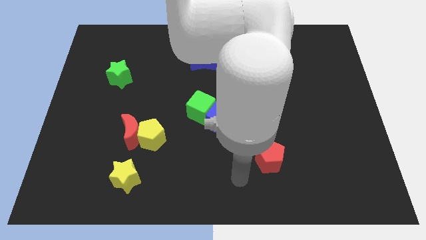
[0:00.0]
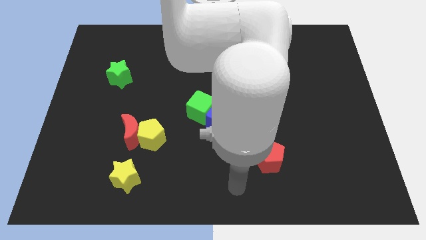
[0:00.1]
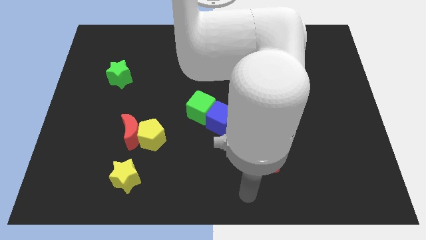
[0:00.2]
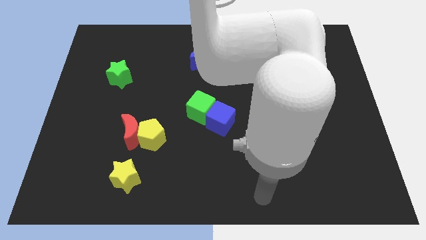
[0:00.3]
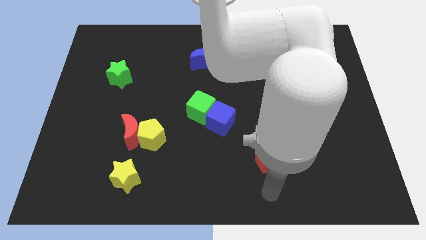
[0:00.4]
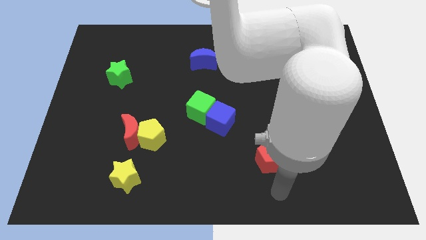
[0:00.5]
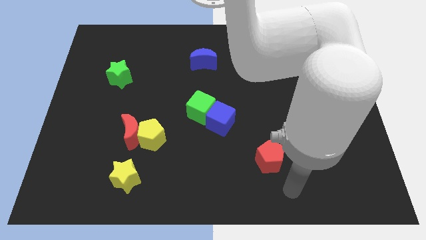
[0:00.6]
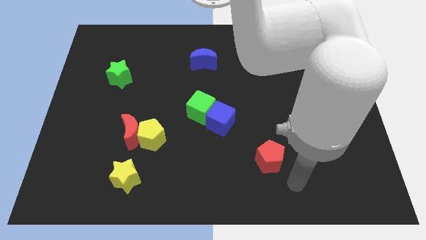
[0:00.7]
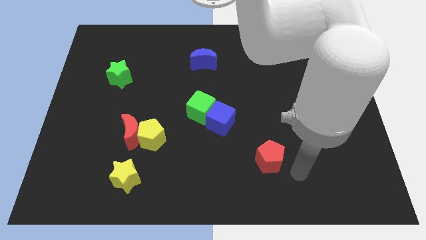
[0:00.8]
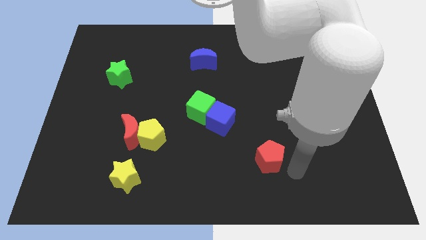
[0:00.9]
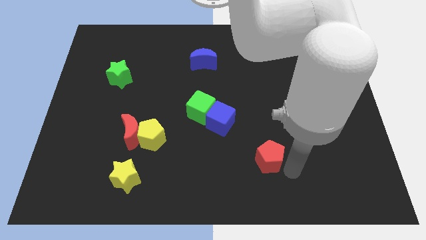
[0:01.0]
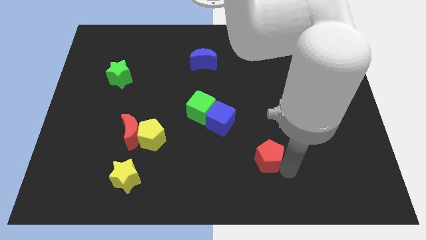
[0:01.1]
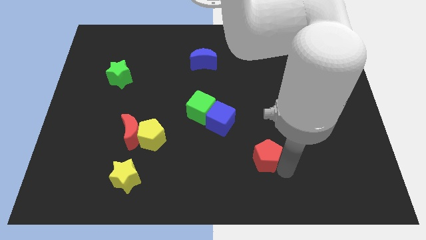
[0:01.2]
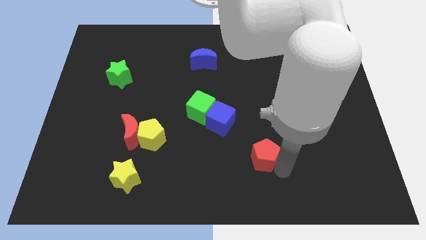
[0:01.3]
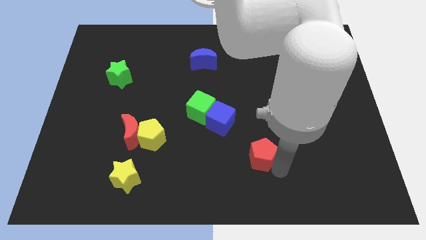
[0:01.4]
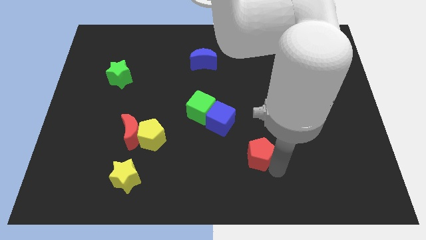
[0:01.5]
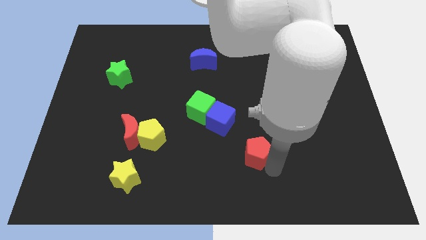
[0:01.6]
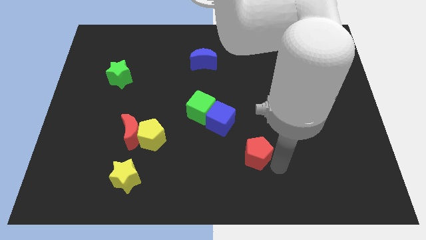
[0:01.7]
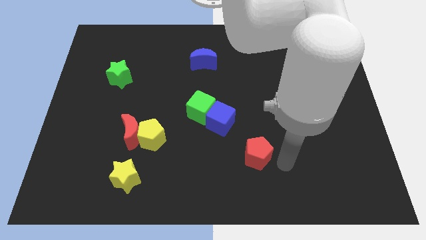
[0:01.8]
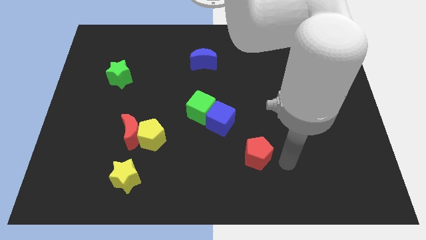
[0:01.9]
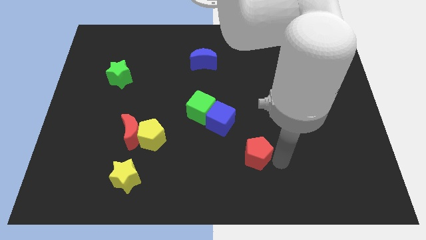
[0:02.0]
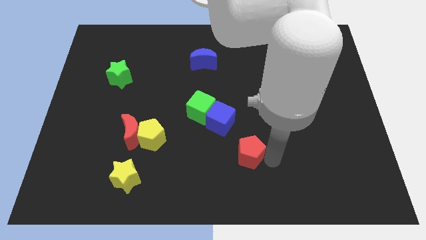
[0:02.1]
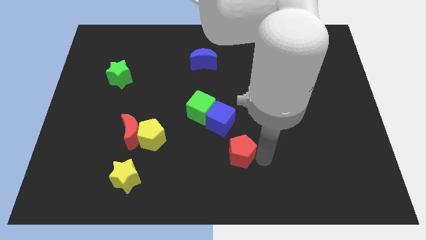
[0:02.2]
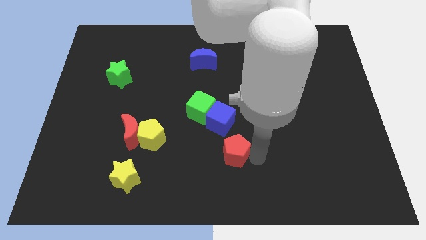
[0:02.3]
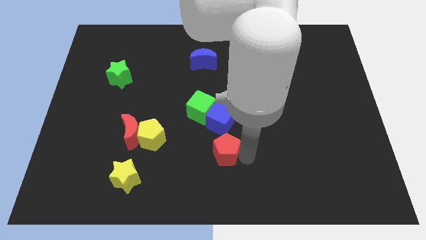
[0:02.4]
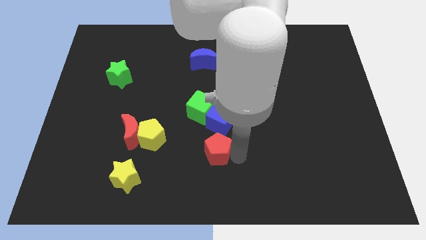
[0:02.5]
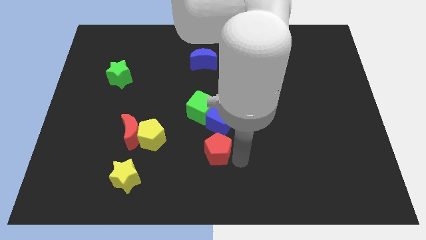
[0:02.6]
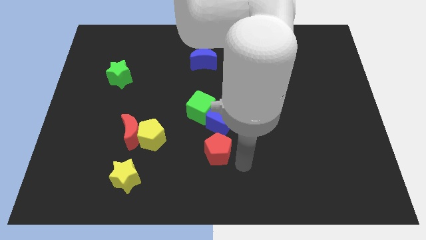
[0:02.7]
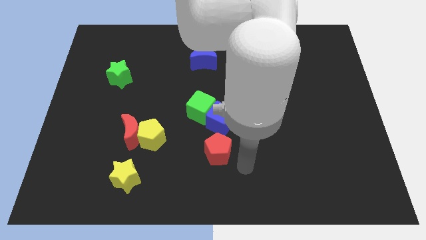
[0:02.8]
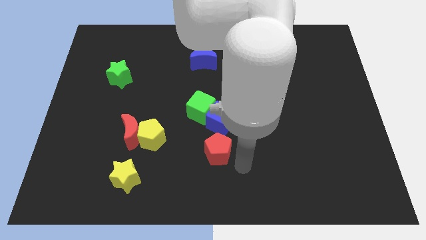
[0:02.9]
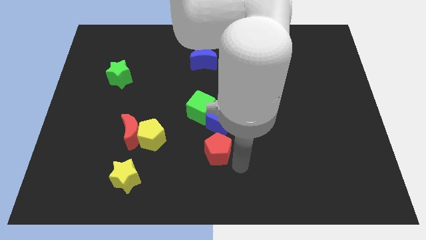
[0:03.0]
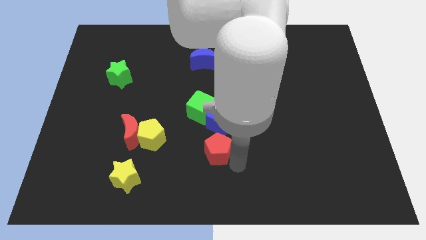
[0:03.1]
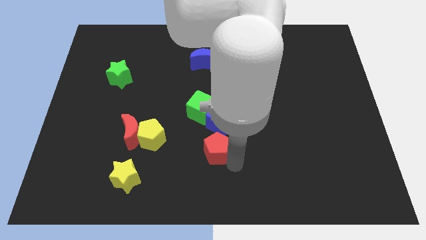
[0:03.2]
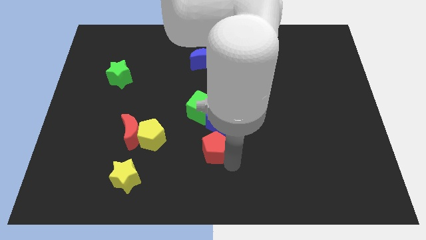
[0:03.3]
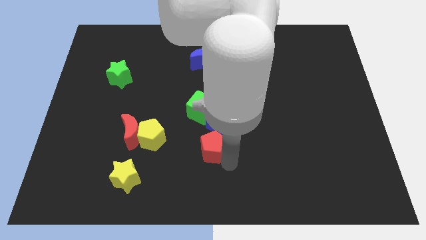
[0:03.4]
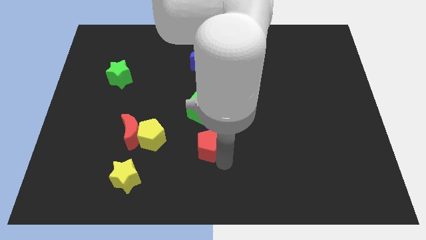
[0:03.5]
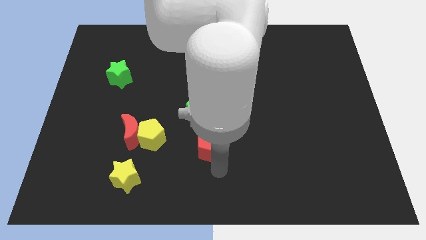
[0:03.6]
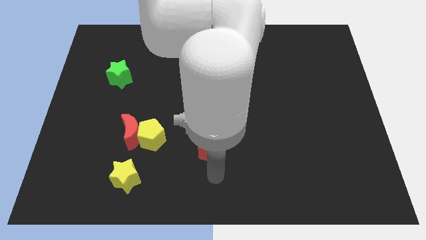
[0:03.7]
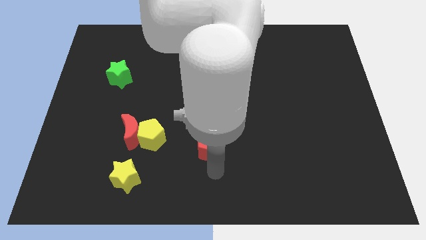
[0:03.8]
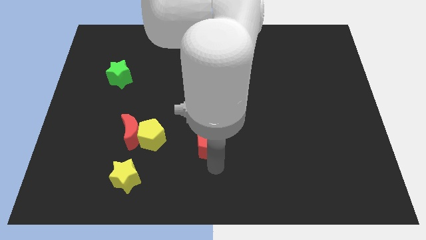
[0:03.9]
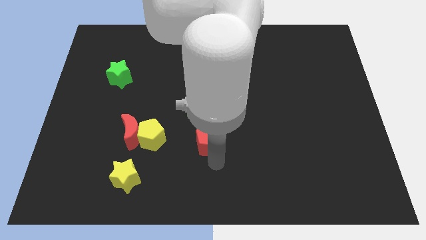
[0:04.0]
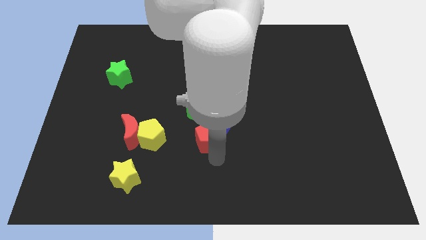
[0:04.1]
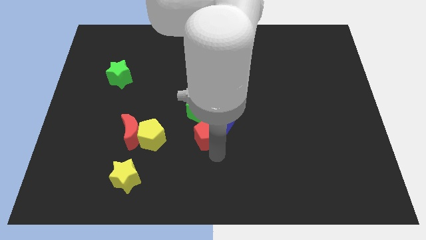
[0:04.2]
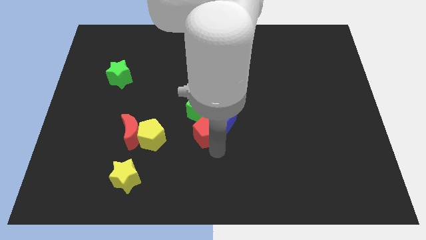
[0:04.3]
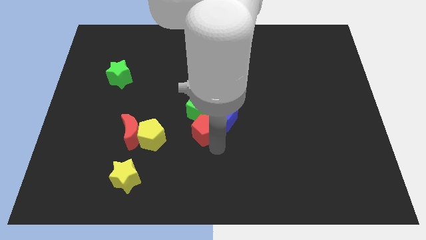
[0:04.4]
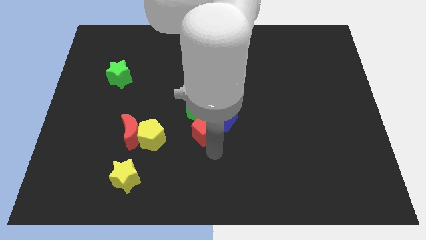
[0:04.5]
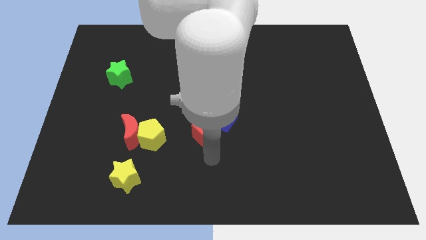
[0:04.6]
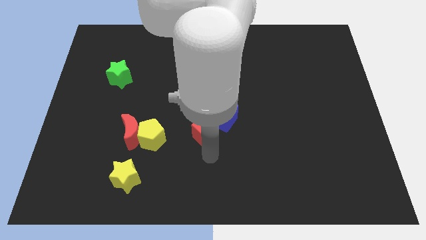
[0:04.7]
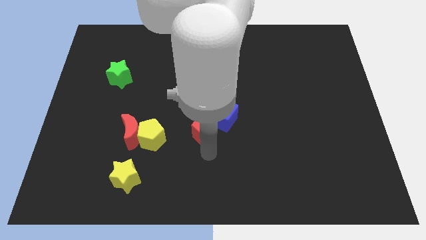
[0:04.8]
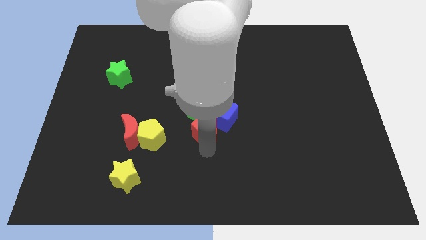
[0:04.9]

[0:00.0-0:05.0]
put the red pentagon next to the green cube

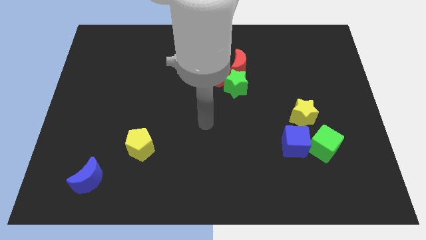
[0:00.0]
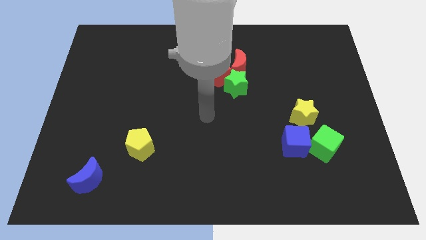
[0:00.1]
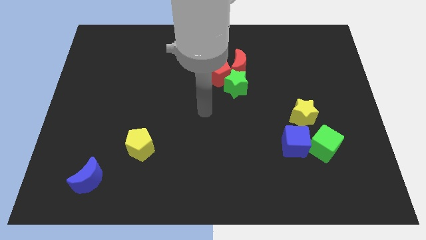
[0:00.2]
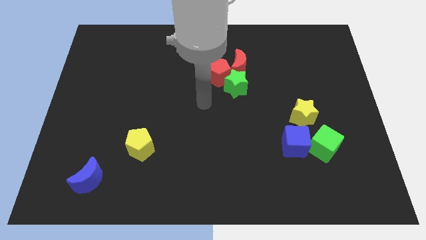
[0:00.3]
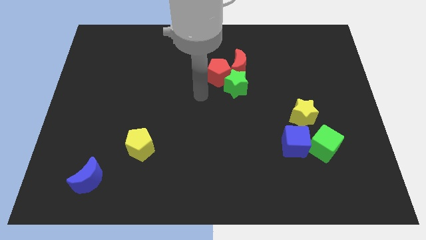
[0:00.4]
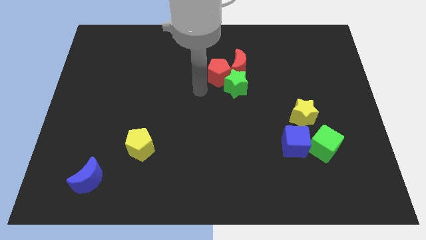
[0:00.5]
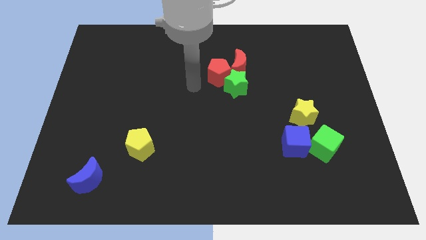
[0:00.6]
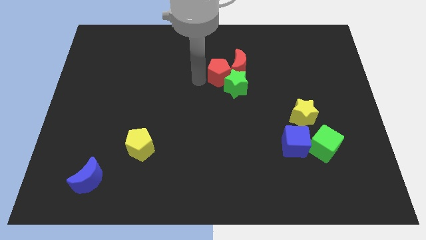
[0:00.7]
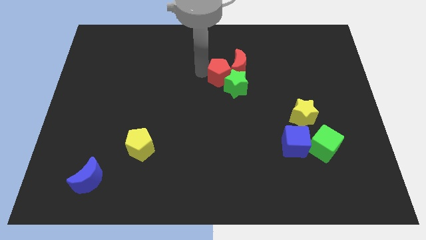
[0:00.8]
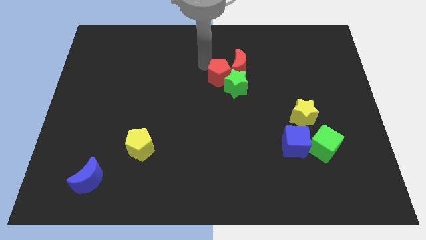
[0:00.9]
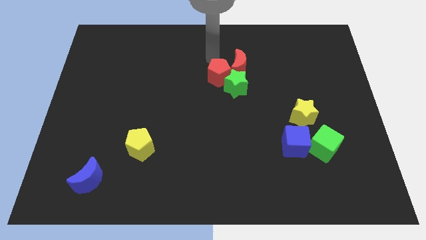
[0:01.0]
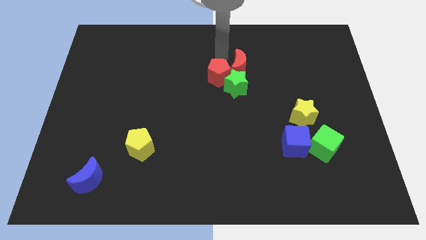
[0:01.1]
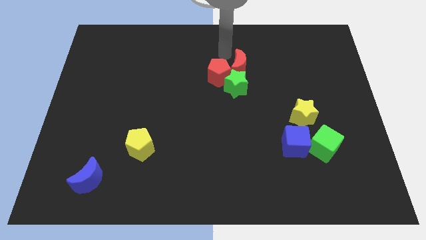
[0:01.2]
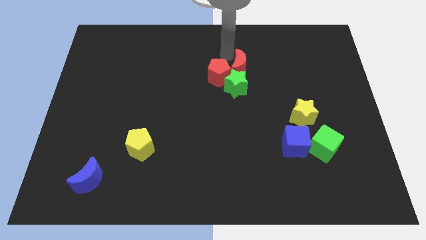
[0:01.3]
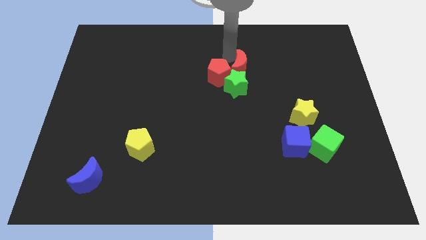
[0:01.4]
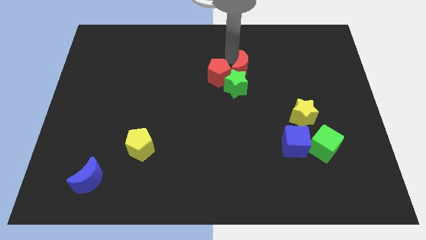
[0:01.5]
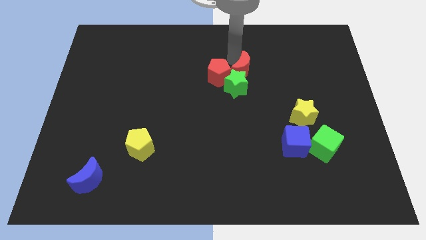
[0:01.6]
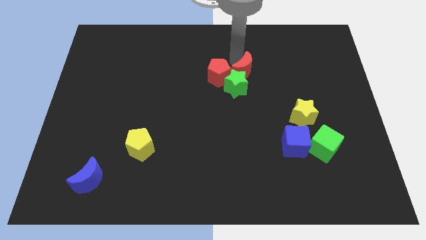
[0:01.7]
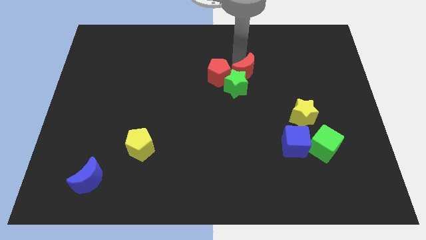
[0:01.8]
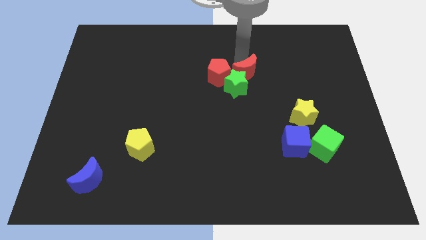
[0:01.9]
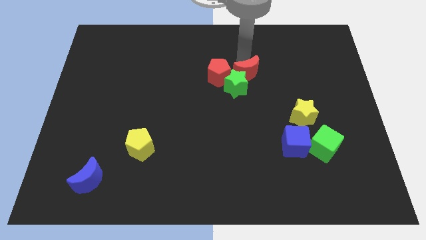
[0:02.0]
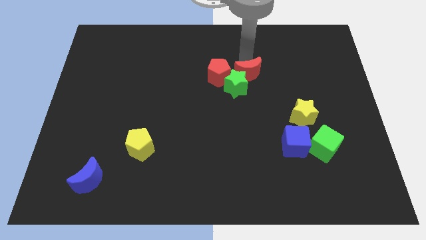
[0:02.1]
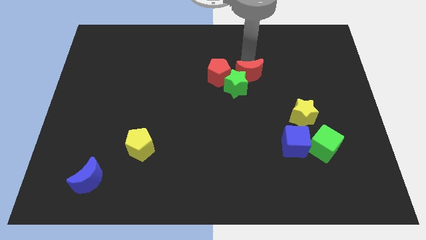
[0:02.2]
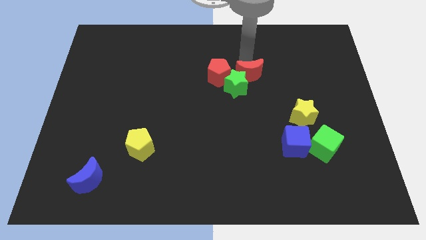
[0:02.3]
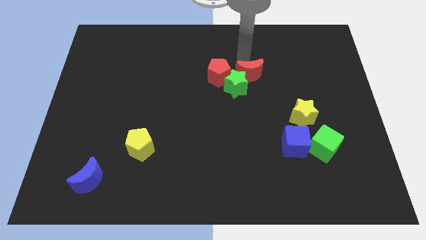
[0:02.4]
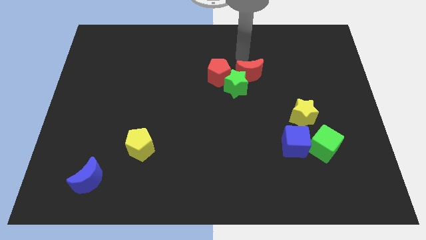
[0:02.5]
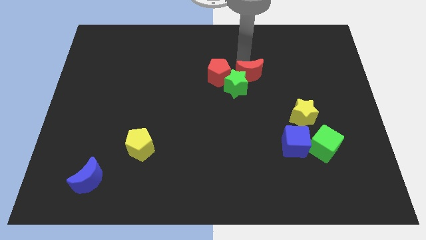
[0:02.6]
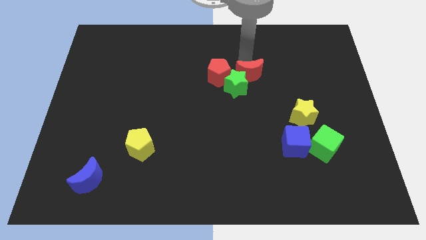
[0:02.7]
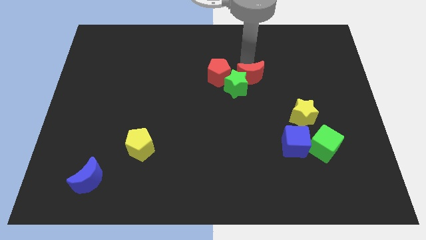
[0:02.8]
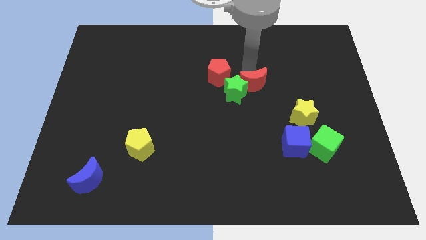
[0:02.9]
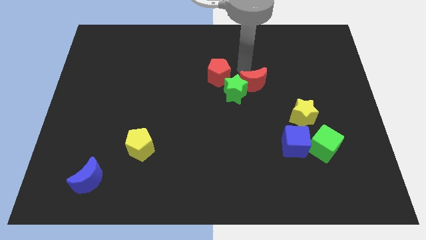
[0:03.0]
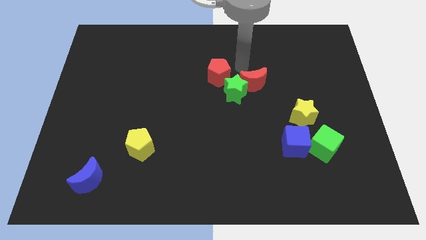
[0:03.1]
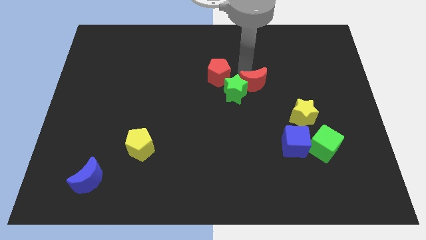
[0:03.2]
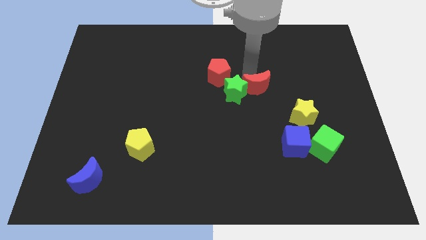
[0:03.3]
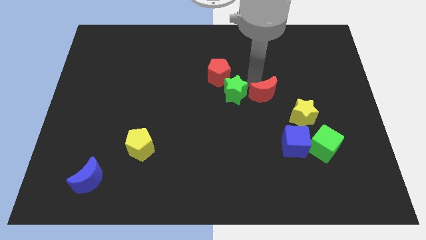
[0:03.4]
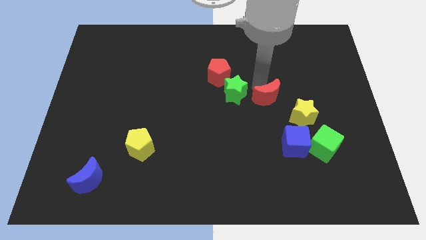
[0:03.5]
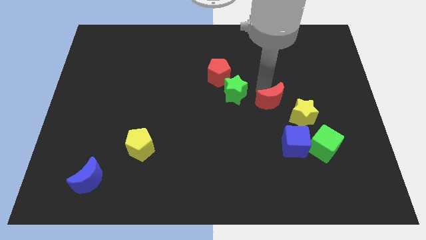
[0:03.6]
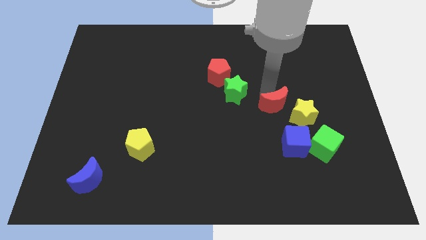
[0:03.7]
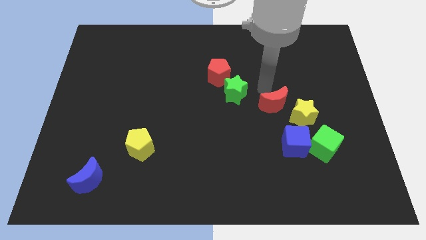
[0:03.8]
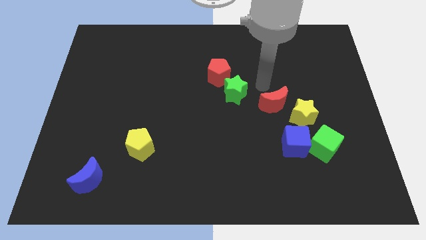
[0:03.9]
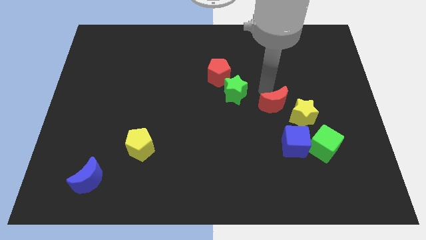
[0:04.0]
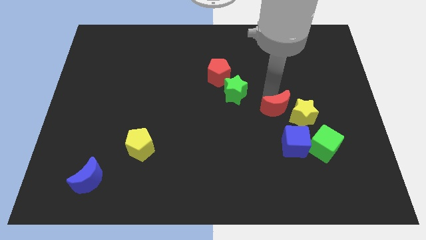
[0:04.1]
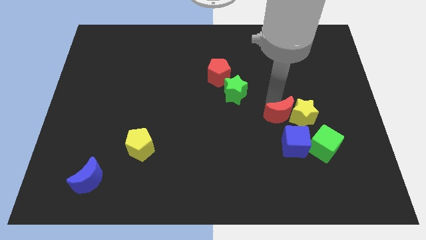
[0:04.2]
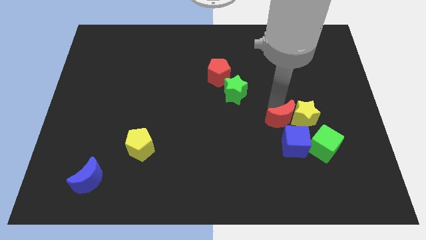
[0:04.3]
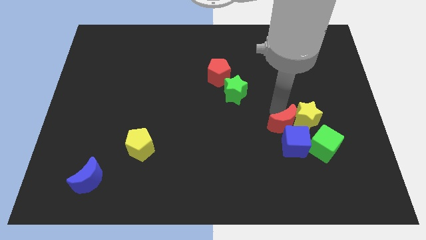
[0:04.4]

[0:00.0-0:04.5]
move the red moon close to the blue cube
